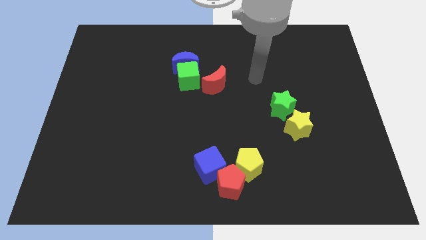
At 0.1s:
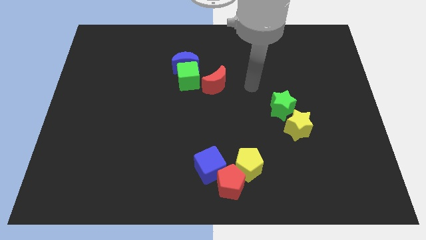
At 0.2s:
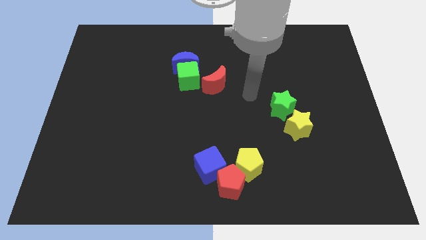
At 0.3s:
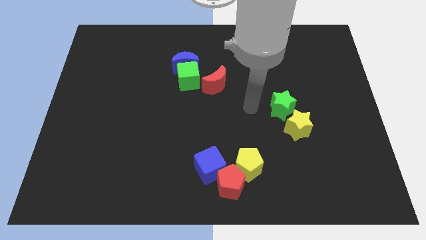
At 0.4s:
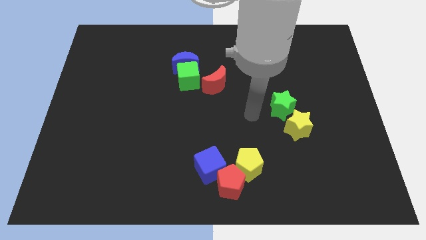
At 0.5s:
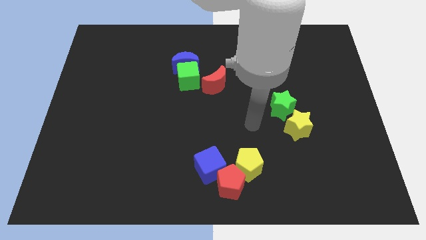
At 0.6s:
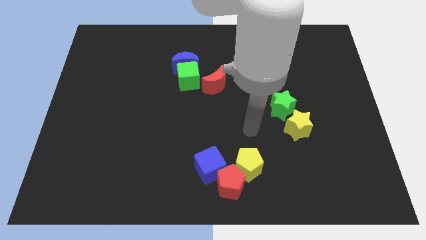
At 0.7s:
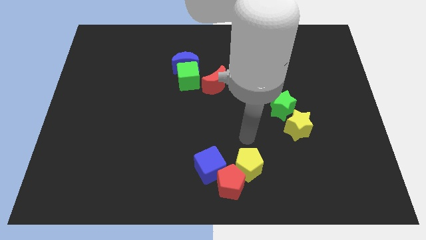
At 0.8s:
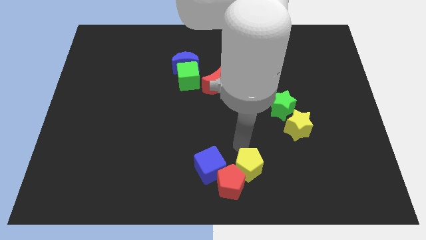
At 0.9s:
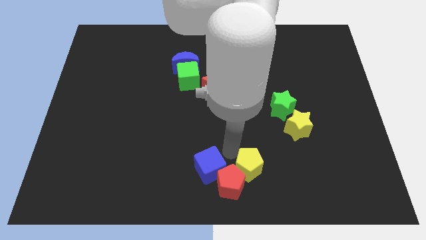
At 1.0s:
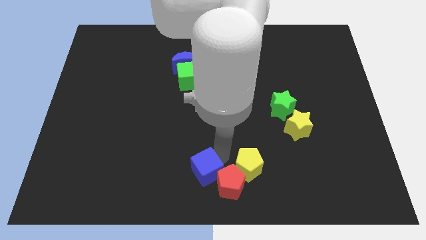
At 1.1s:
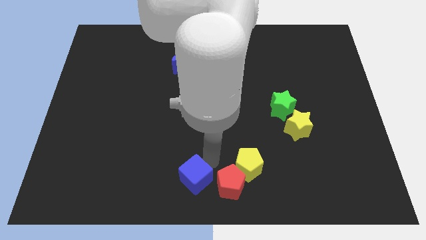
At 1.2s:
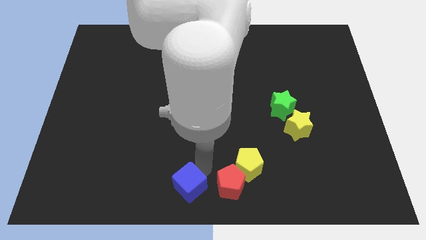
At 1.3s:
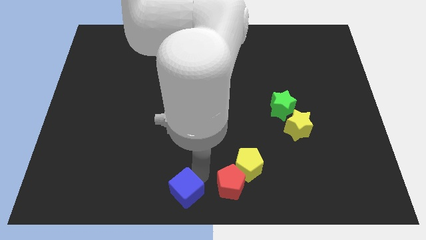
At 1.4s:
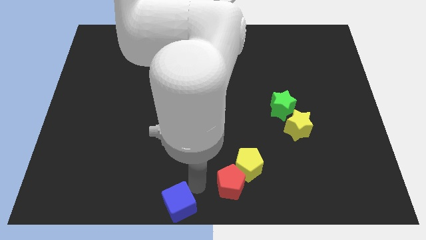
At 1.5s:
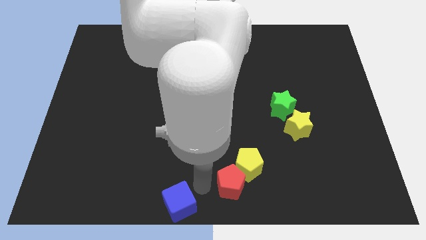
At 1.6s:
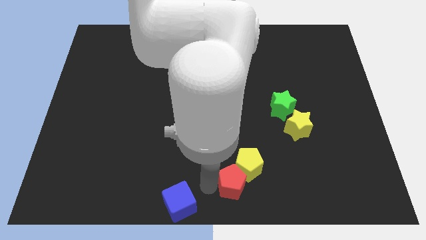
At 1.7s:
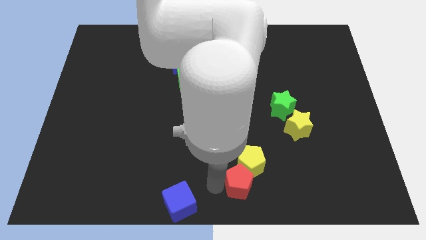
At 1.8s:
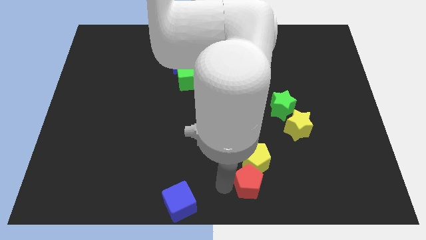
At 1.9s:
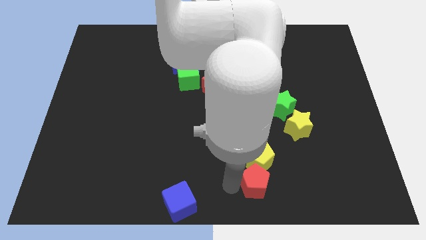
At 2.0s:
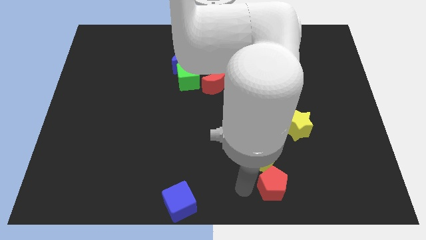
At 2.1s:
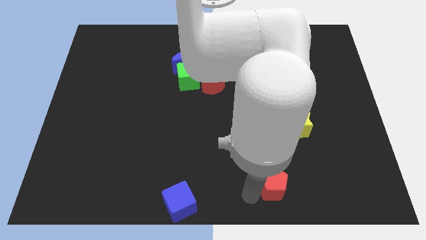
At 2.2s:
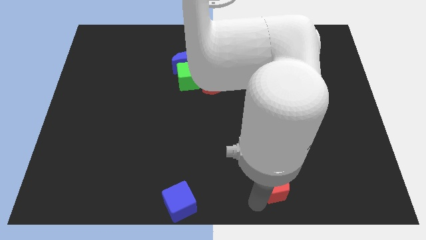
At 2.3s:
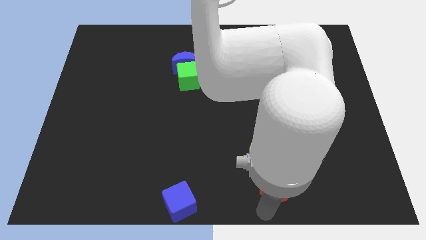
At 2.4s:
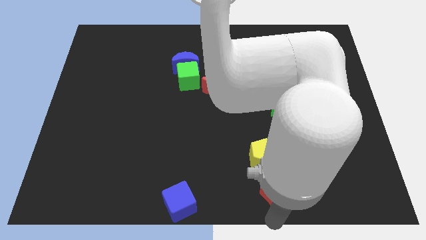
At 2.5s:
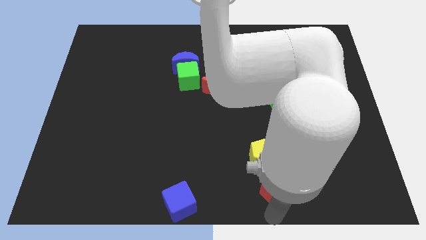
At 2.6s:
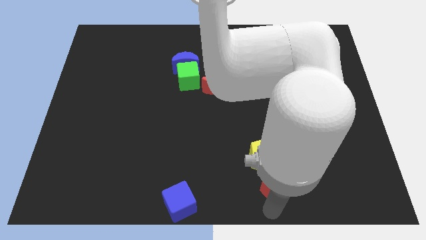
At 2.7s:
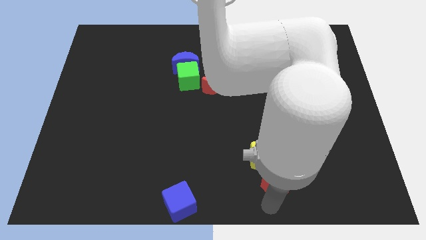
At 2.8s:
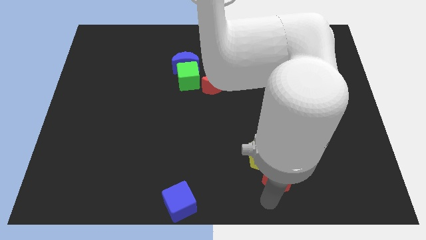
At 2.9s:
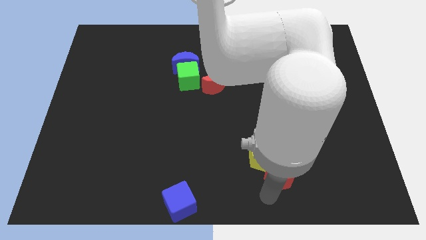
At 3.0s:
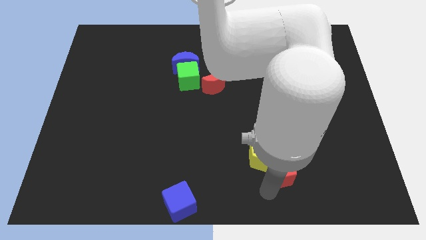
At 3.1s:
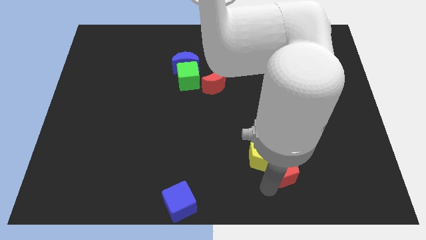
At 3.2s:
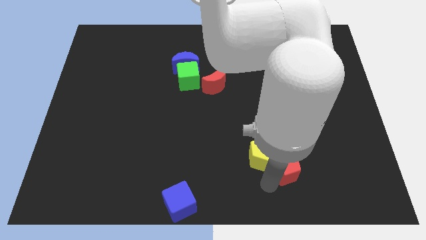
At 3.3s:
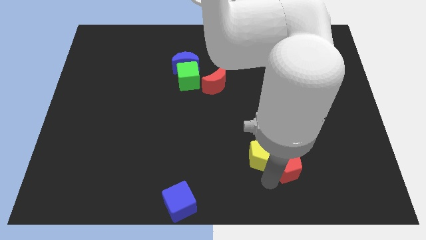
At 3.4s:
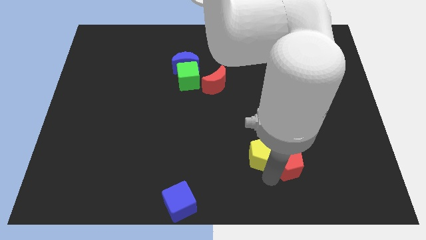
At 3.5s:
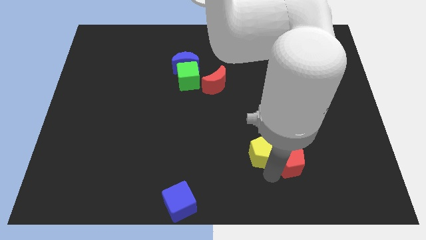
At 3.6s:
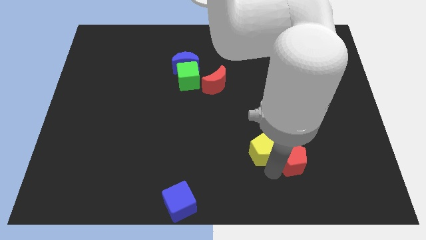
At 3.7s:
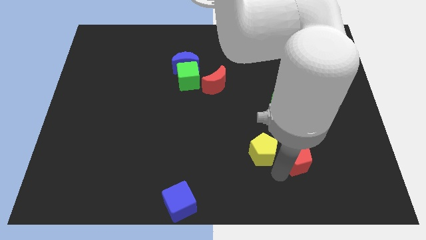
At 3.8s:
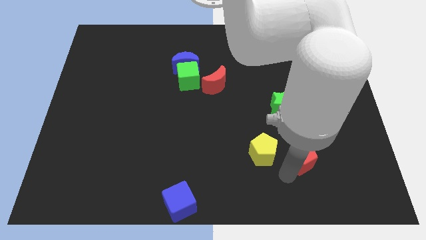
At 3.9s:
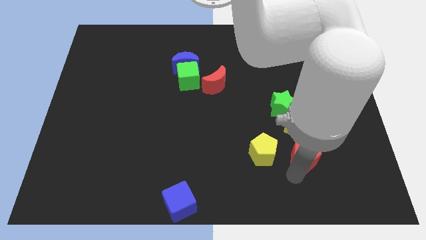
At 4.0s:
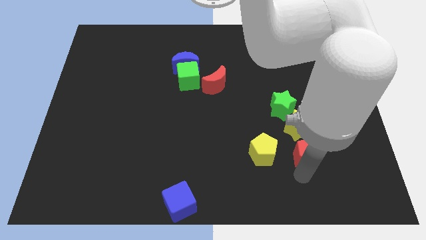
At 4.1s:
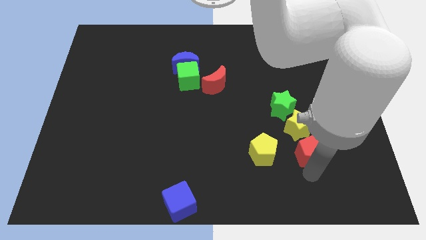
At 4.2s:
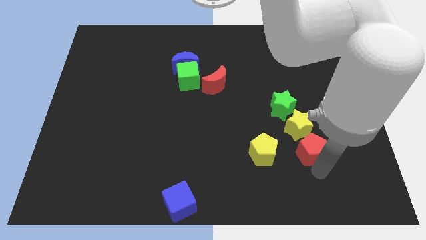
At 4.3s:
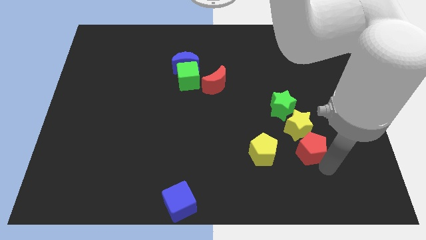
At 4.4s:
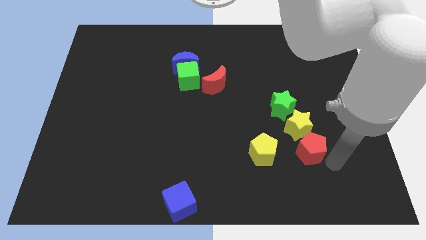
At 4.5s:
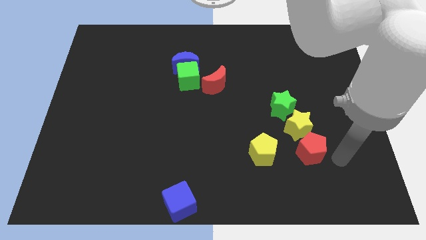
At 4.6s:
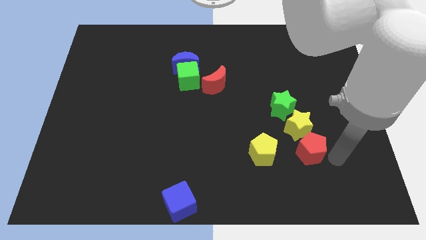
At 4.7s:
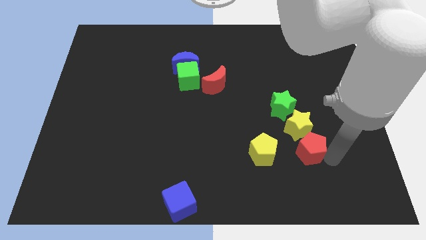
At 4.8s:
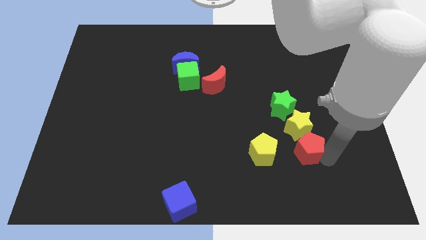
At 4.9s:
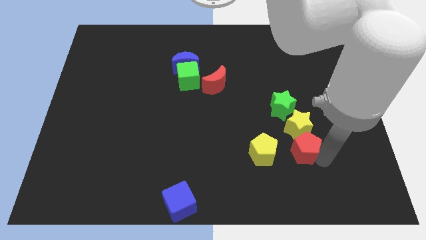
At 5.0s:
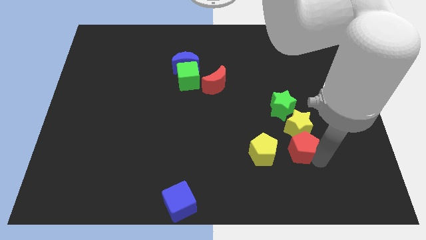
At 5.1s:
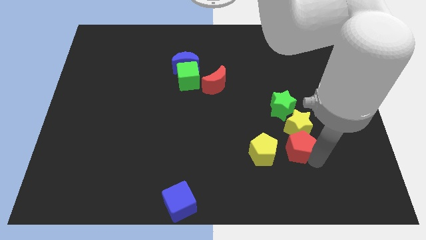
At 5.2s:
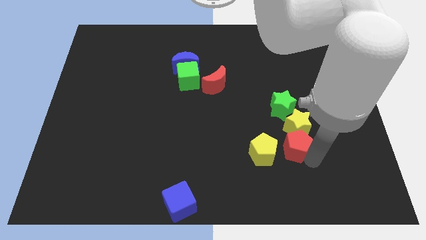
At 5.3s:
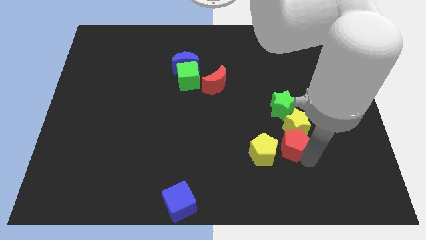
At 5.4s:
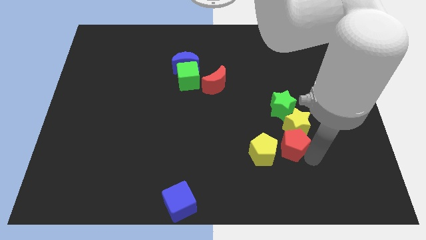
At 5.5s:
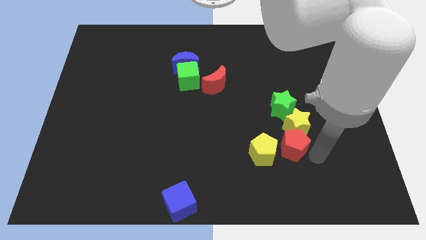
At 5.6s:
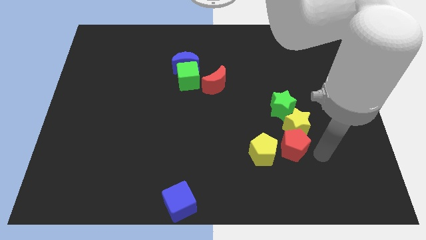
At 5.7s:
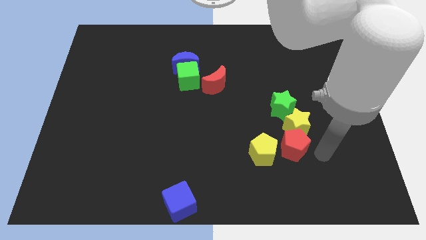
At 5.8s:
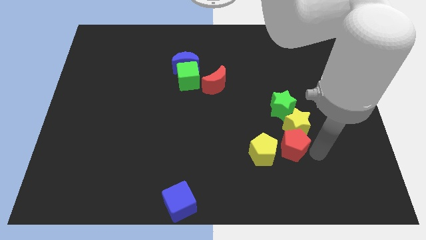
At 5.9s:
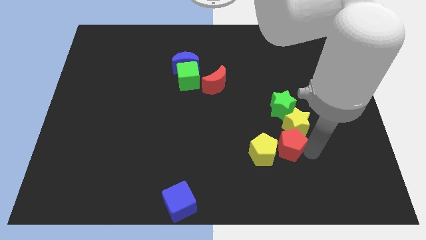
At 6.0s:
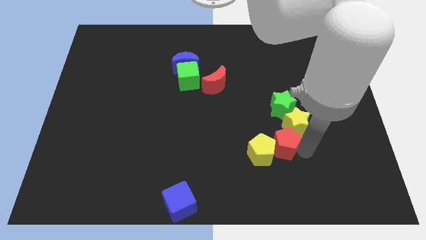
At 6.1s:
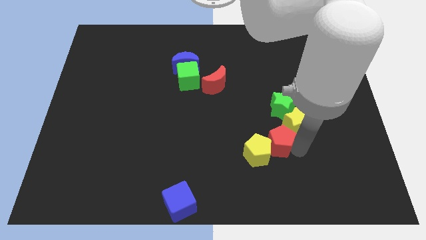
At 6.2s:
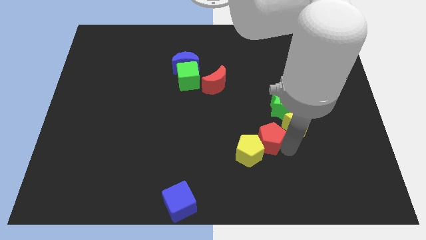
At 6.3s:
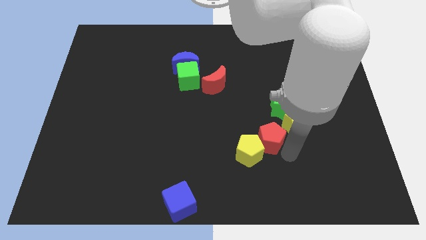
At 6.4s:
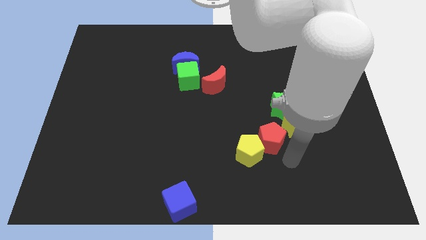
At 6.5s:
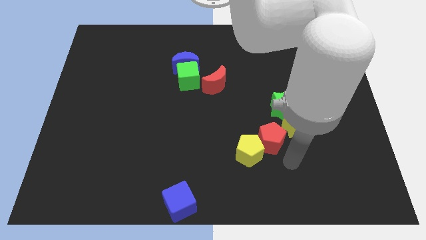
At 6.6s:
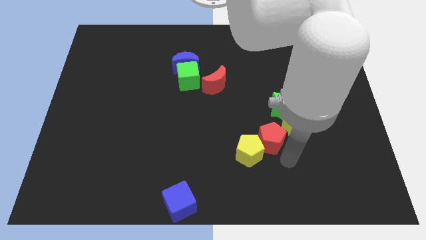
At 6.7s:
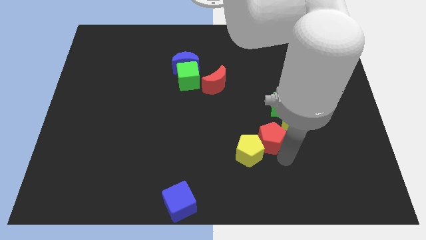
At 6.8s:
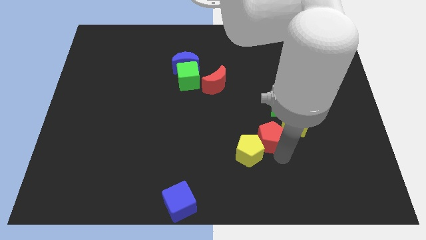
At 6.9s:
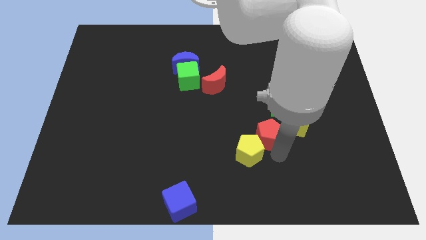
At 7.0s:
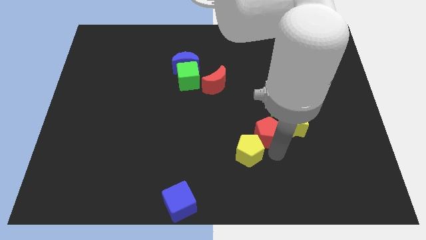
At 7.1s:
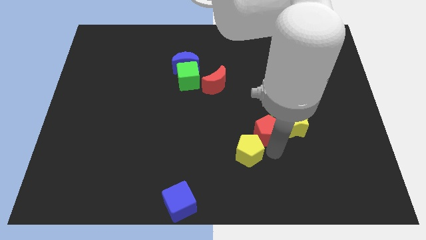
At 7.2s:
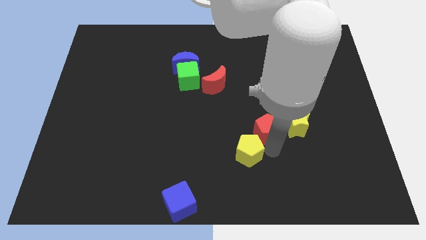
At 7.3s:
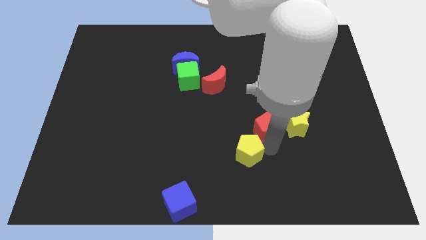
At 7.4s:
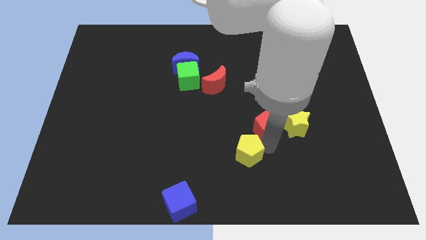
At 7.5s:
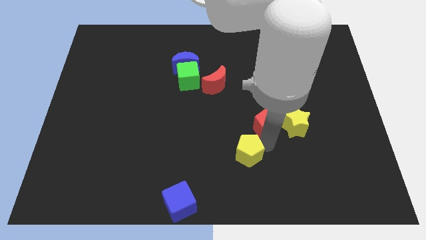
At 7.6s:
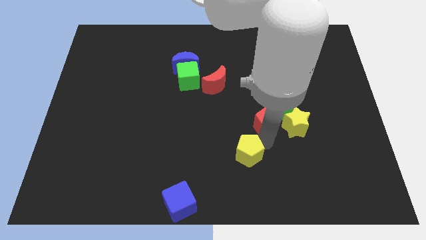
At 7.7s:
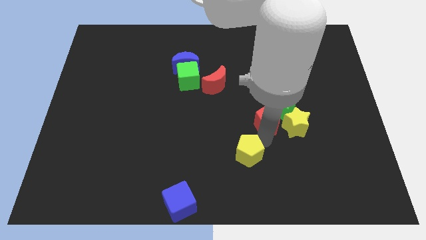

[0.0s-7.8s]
push the red pentagon to the left of the green star
